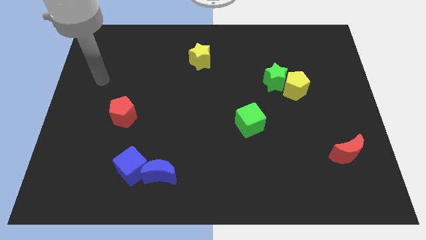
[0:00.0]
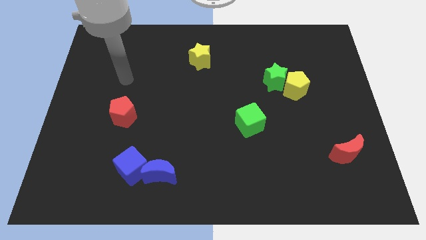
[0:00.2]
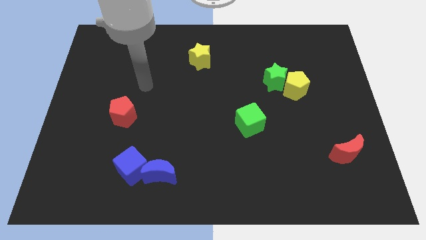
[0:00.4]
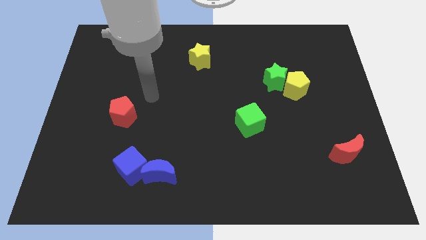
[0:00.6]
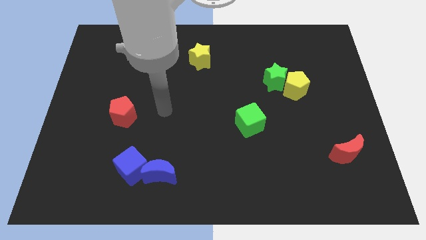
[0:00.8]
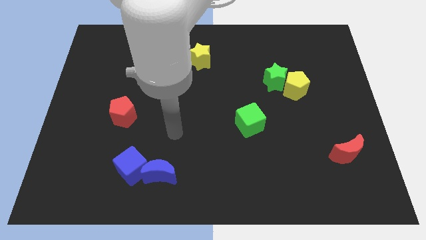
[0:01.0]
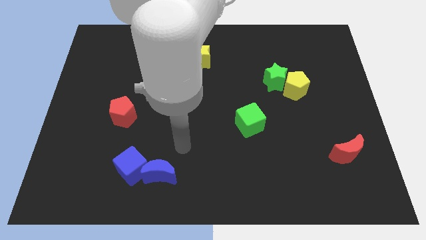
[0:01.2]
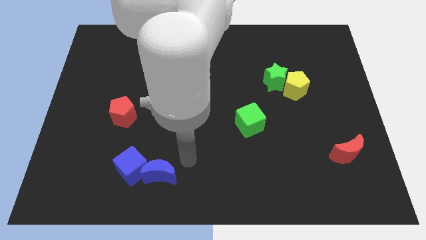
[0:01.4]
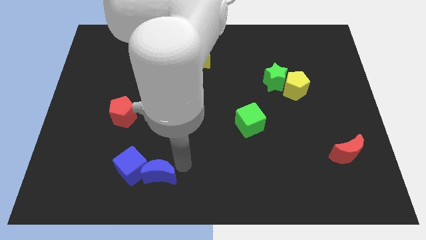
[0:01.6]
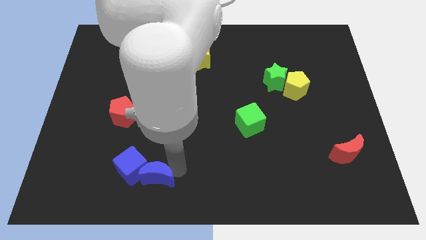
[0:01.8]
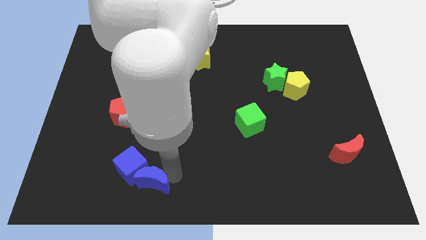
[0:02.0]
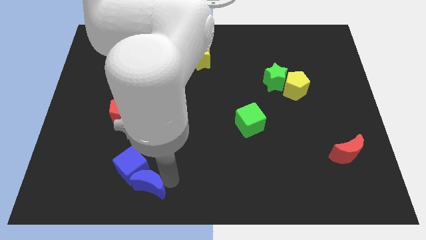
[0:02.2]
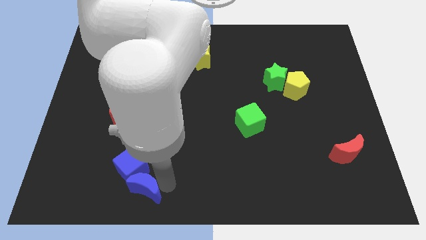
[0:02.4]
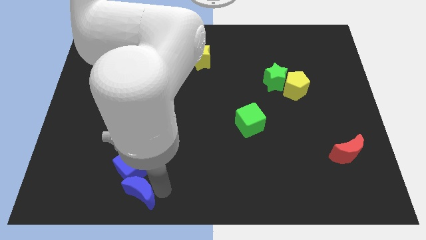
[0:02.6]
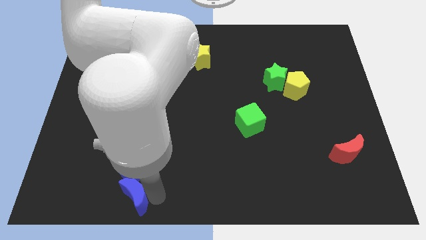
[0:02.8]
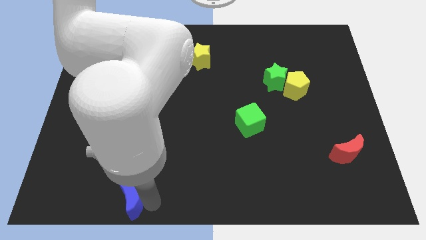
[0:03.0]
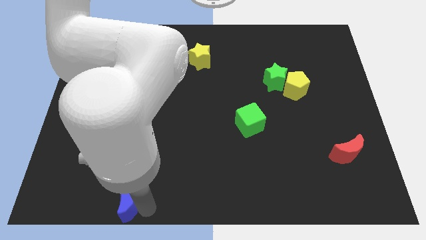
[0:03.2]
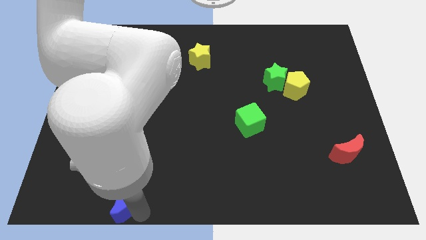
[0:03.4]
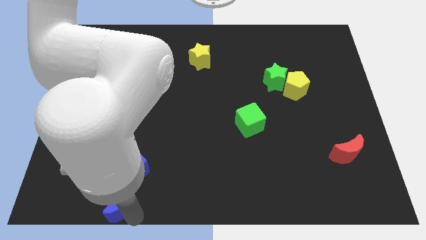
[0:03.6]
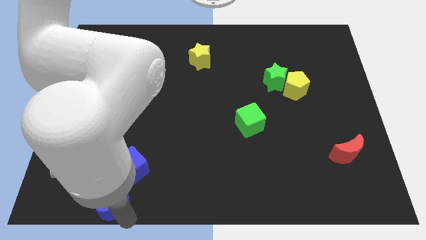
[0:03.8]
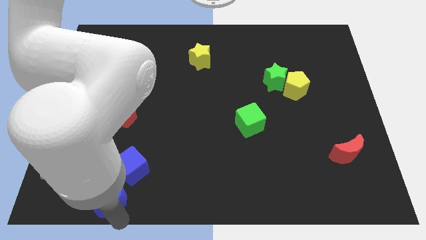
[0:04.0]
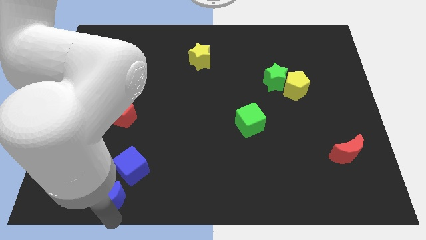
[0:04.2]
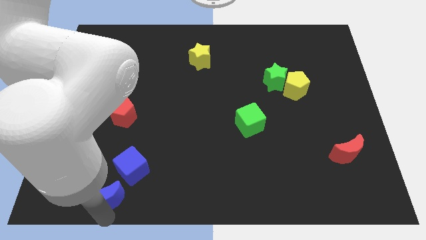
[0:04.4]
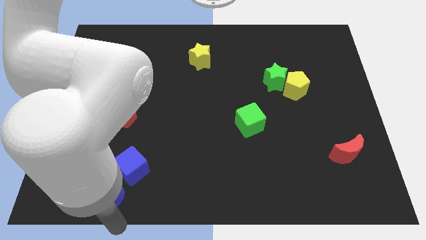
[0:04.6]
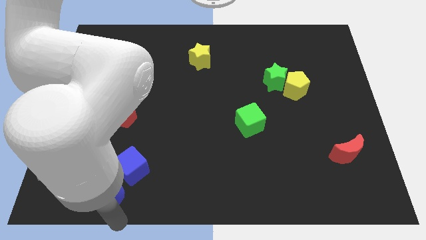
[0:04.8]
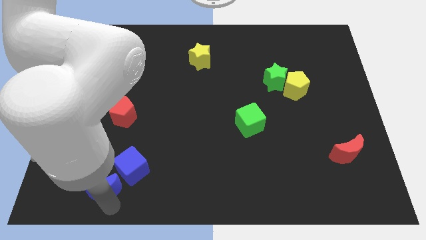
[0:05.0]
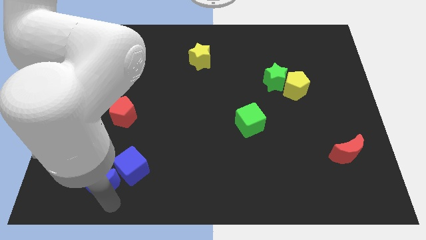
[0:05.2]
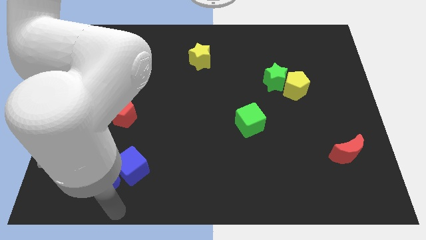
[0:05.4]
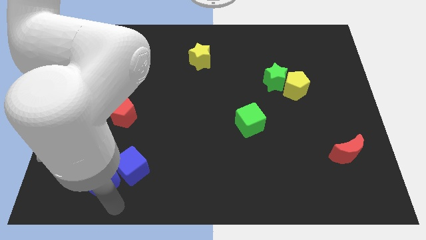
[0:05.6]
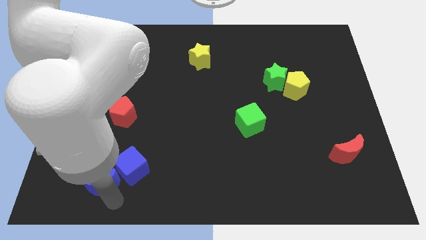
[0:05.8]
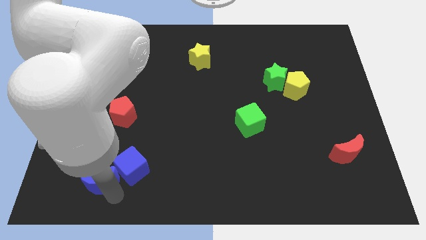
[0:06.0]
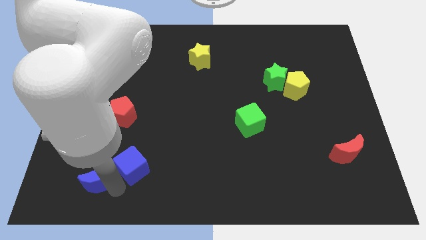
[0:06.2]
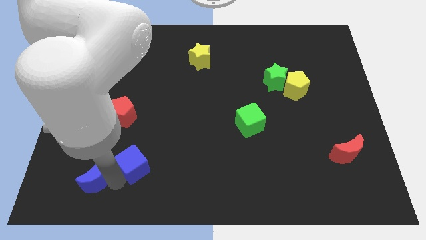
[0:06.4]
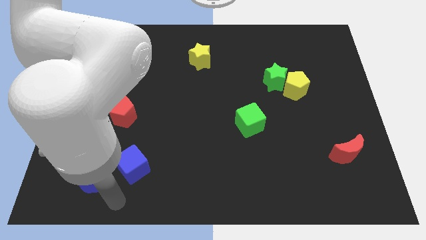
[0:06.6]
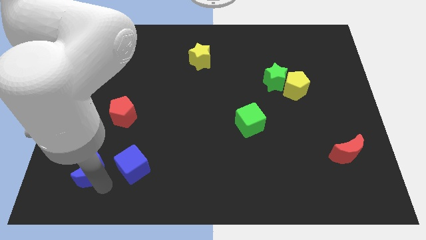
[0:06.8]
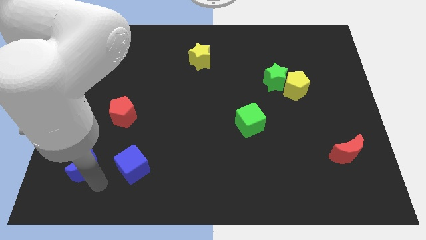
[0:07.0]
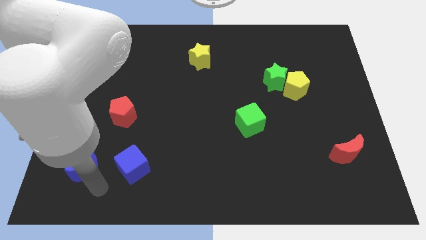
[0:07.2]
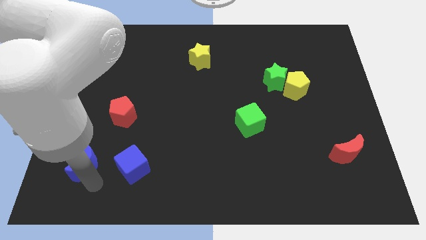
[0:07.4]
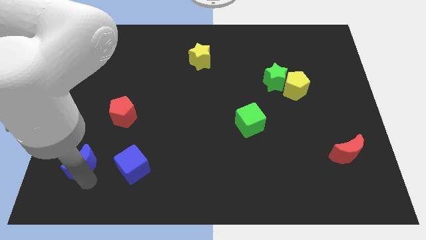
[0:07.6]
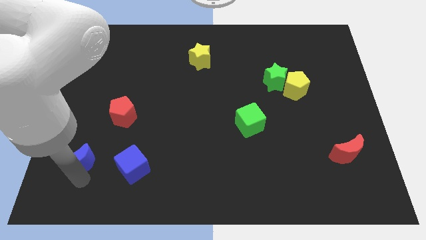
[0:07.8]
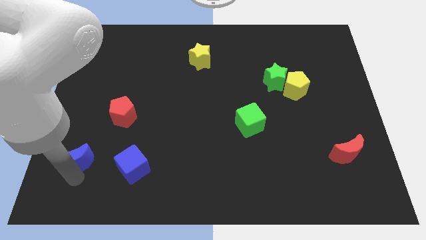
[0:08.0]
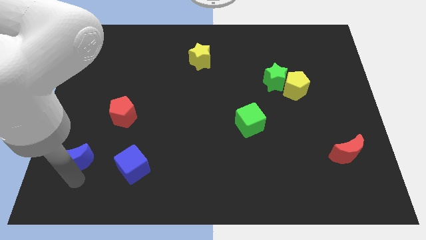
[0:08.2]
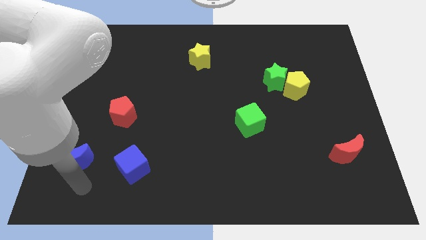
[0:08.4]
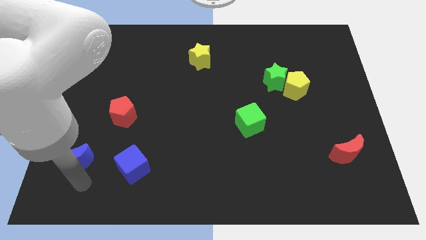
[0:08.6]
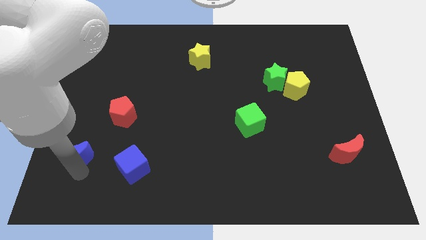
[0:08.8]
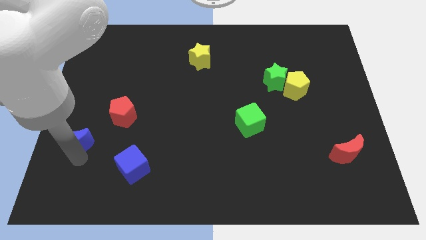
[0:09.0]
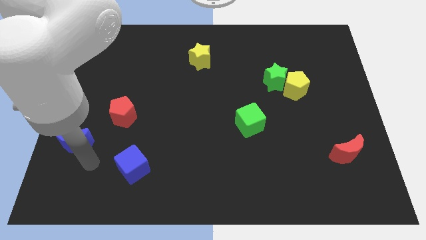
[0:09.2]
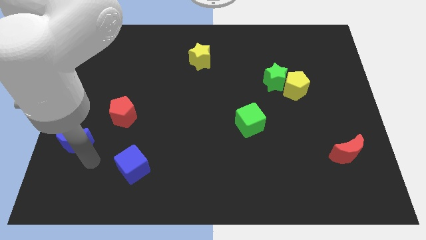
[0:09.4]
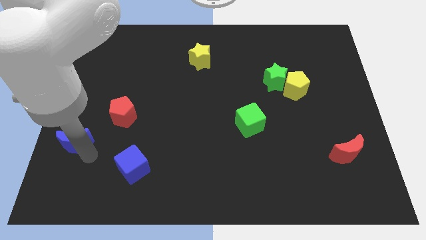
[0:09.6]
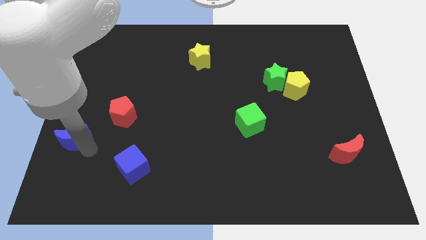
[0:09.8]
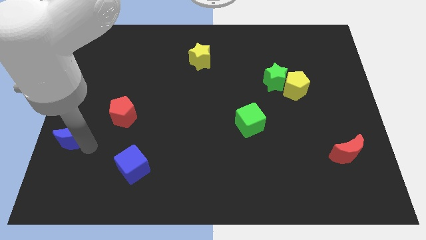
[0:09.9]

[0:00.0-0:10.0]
slide the blue moon to the left side of the board

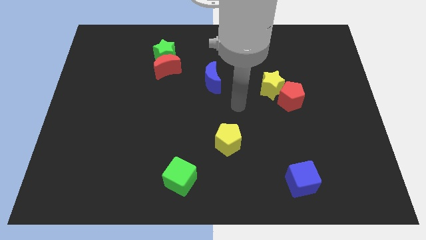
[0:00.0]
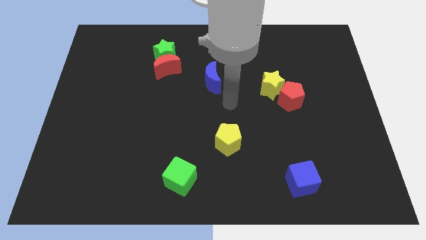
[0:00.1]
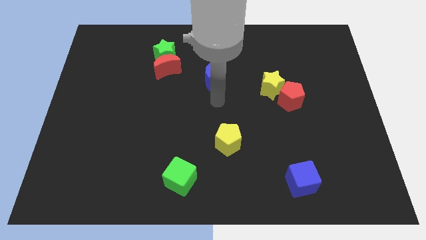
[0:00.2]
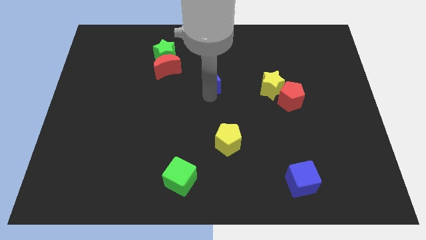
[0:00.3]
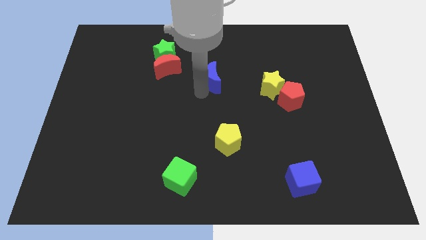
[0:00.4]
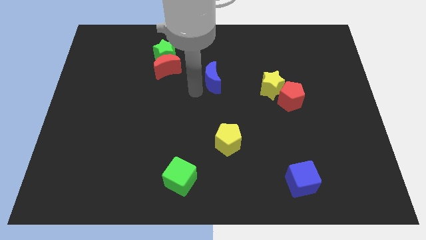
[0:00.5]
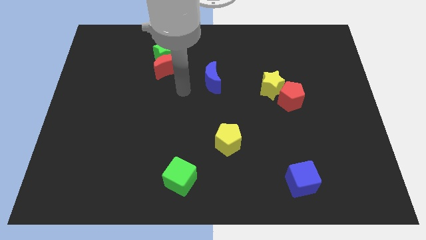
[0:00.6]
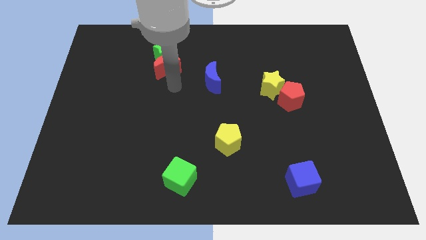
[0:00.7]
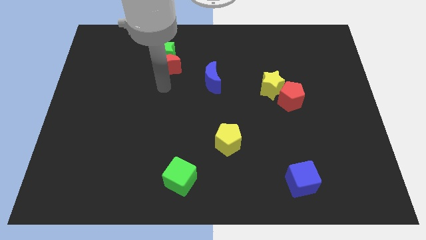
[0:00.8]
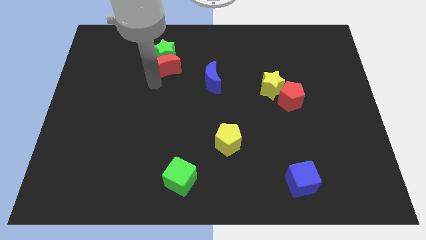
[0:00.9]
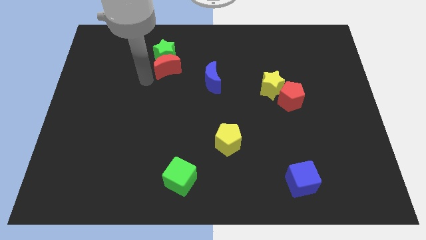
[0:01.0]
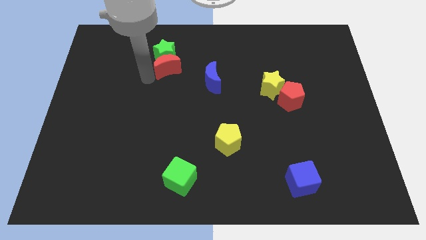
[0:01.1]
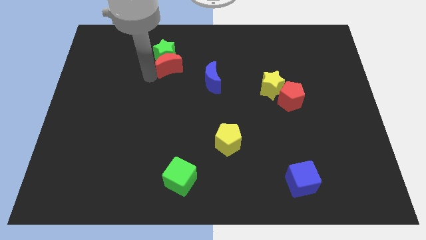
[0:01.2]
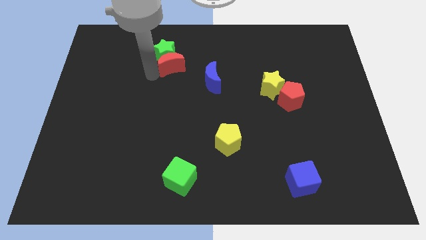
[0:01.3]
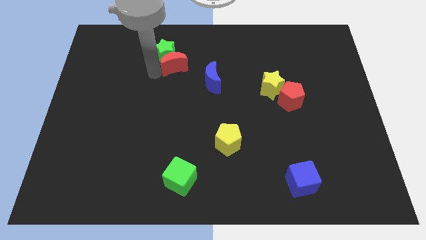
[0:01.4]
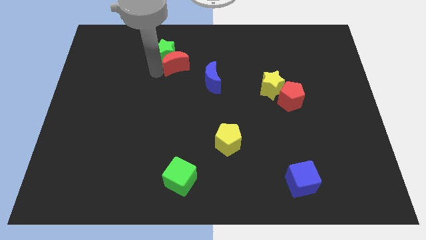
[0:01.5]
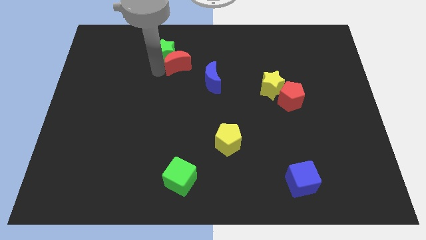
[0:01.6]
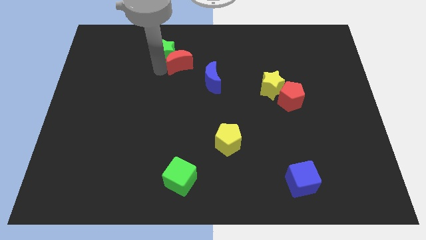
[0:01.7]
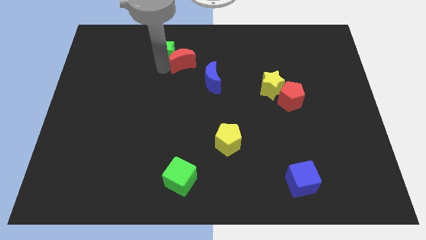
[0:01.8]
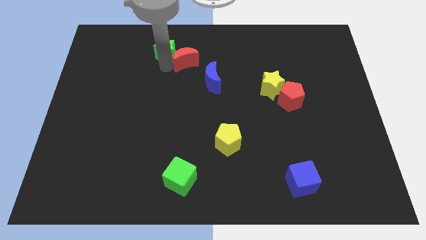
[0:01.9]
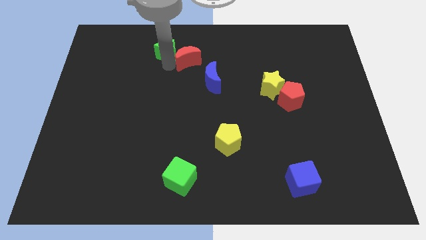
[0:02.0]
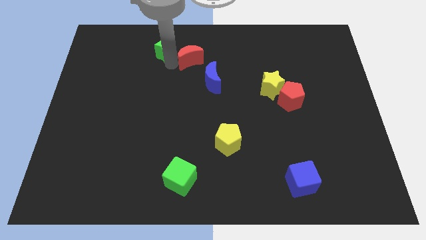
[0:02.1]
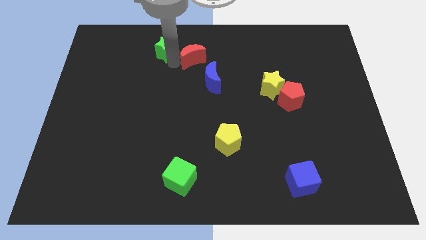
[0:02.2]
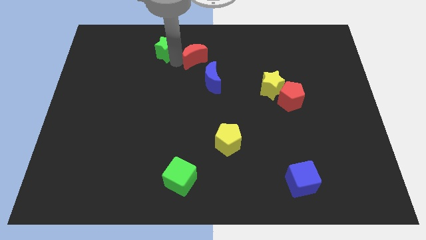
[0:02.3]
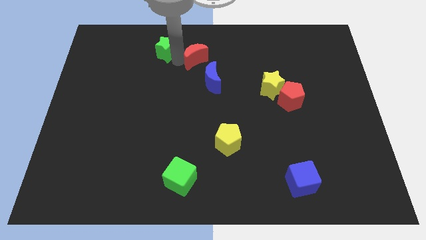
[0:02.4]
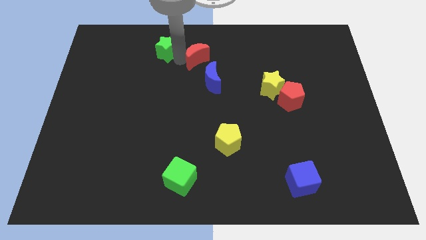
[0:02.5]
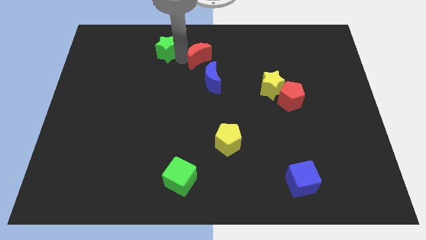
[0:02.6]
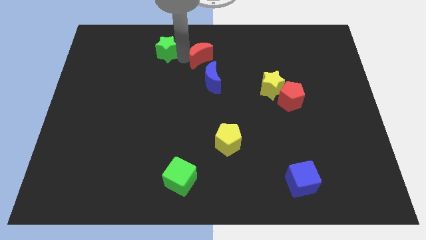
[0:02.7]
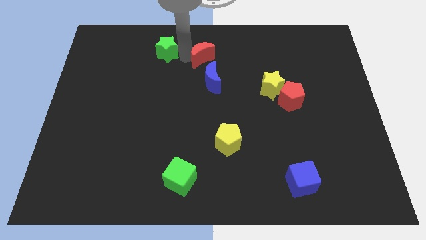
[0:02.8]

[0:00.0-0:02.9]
push the red moon to the towards your base
